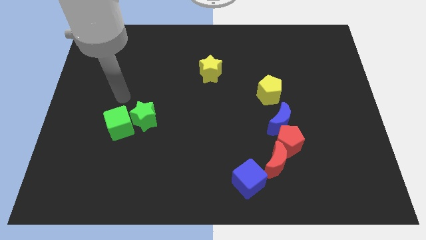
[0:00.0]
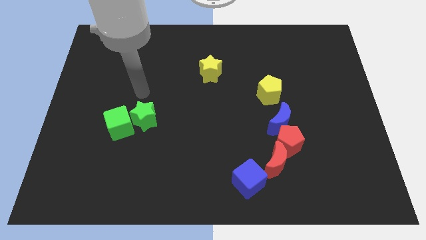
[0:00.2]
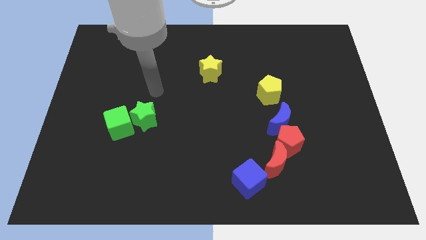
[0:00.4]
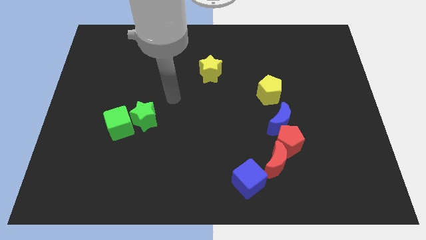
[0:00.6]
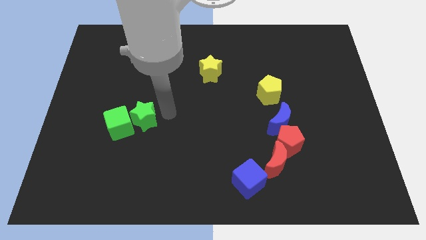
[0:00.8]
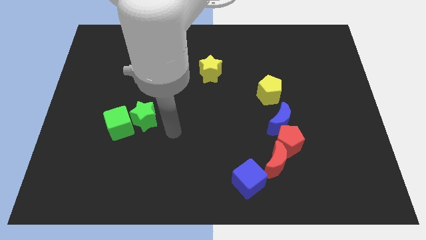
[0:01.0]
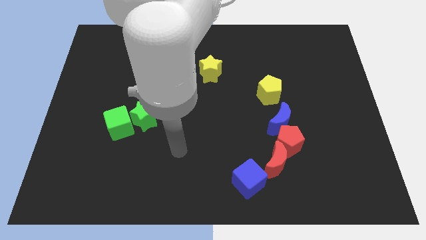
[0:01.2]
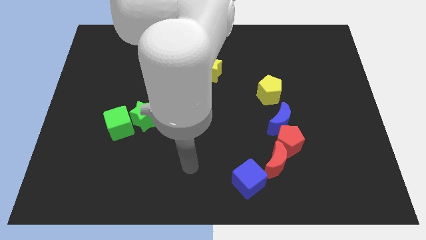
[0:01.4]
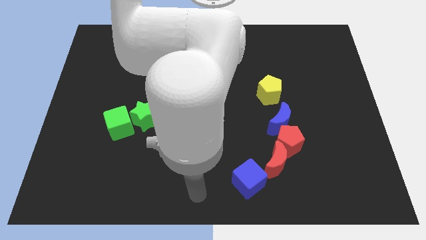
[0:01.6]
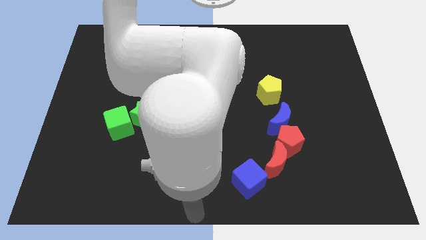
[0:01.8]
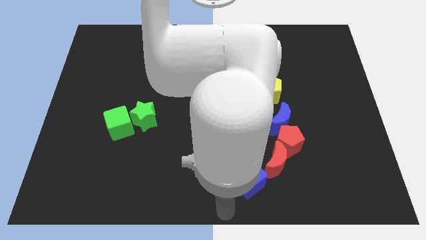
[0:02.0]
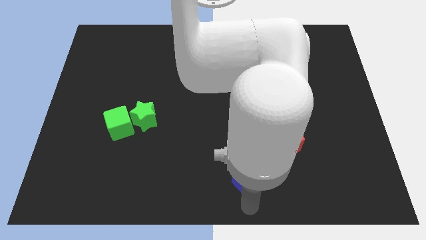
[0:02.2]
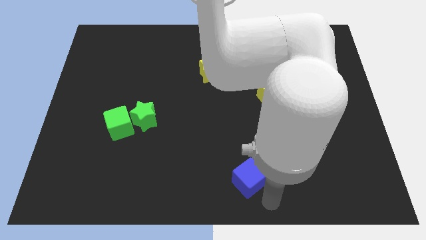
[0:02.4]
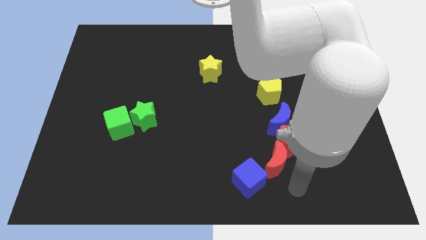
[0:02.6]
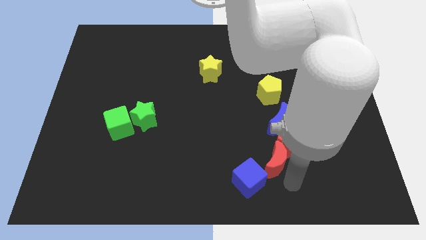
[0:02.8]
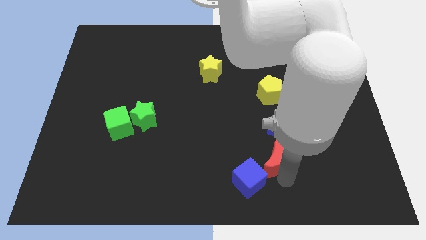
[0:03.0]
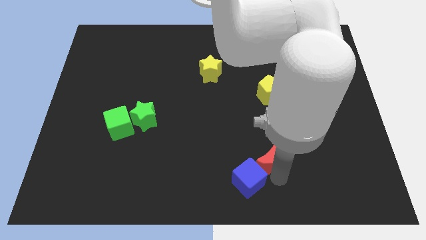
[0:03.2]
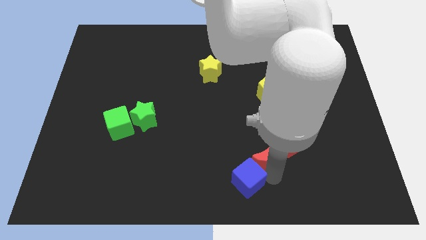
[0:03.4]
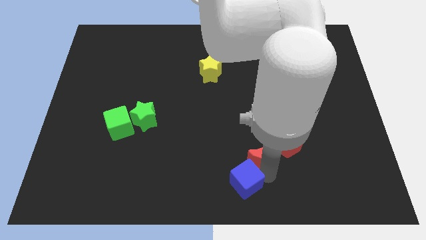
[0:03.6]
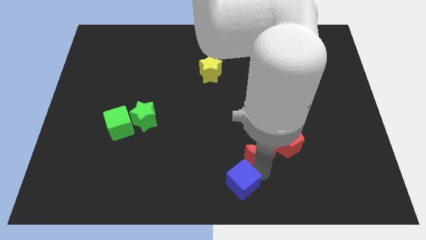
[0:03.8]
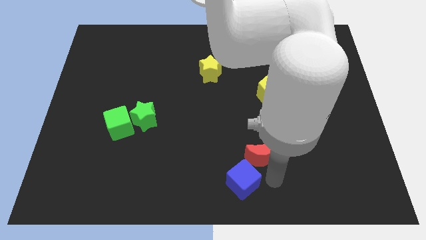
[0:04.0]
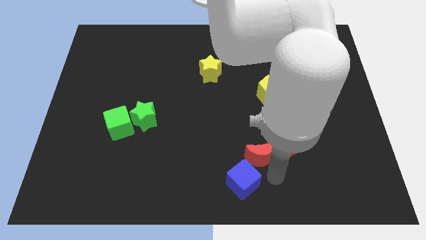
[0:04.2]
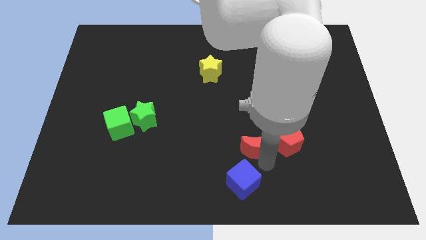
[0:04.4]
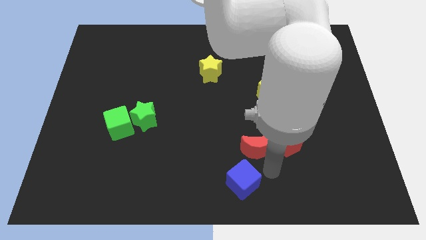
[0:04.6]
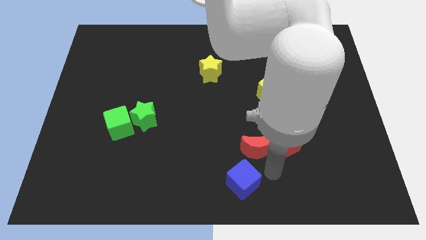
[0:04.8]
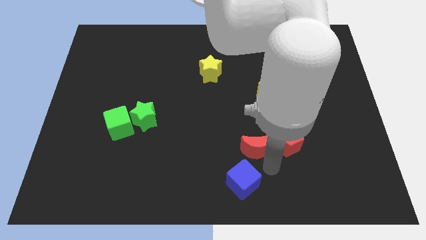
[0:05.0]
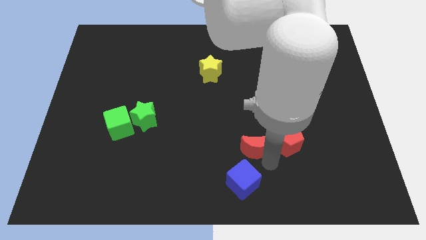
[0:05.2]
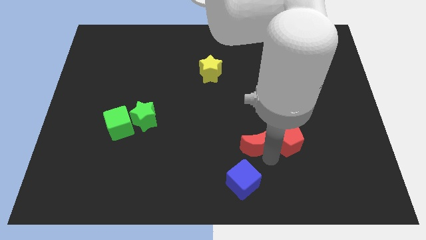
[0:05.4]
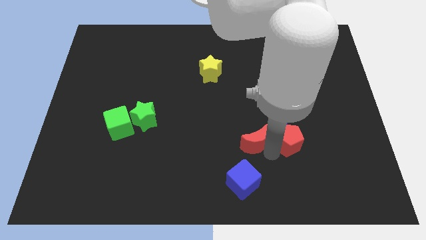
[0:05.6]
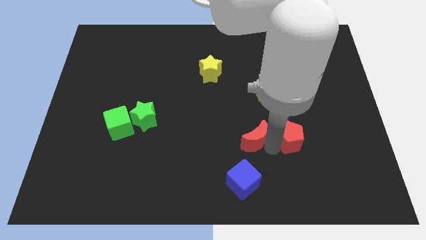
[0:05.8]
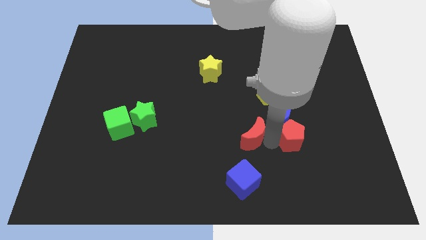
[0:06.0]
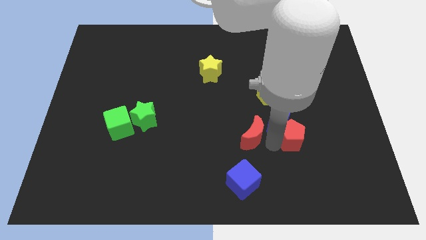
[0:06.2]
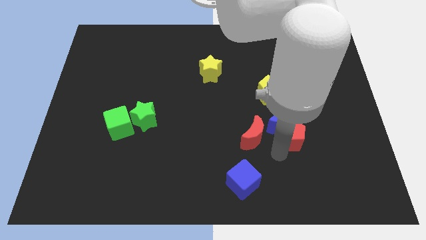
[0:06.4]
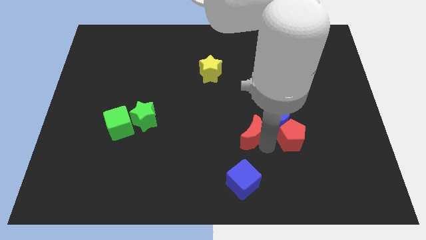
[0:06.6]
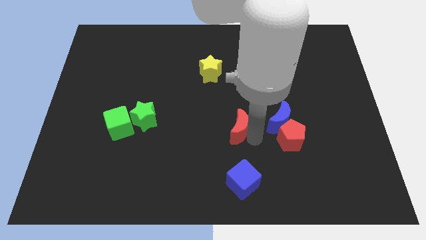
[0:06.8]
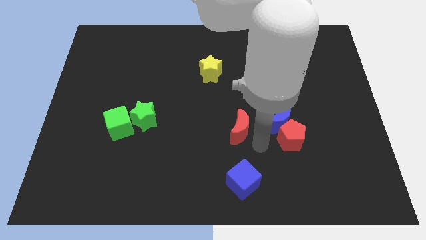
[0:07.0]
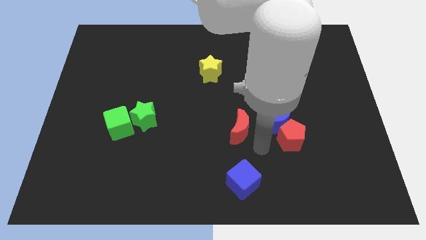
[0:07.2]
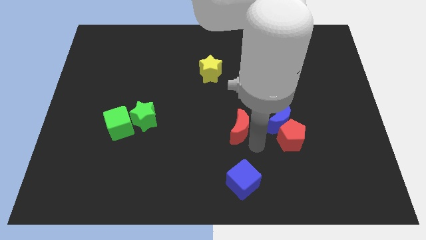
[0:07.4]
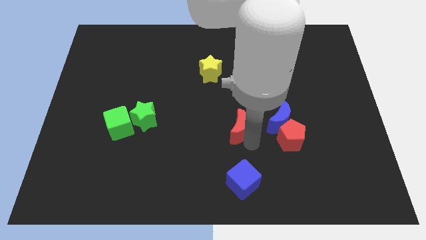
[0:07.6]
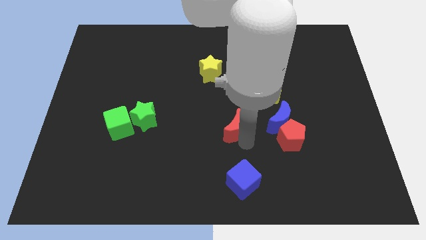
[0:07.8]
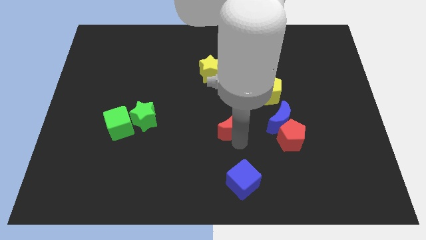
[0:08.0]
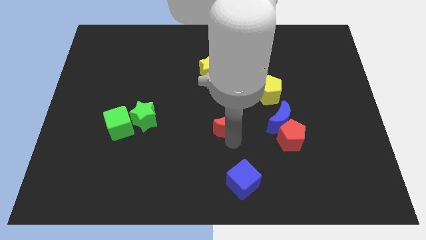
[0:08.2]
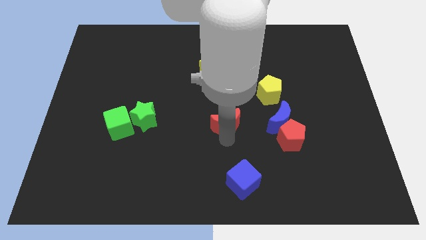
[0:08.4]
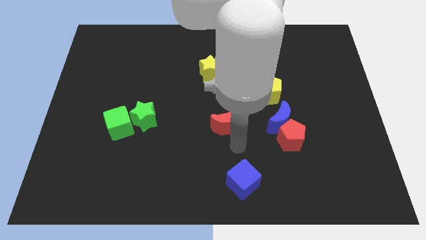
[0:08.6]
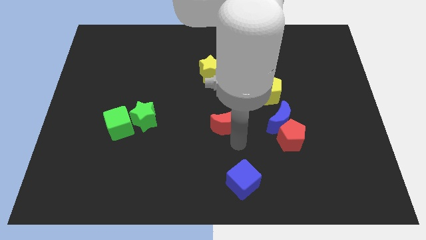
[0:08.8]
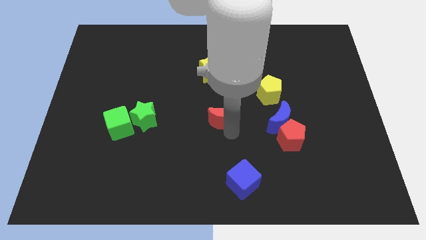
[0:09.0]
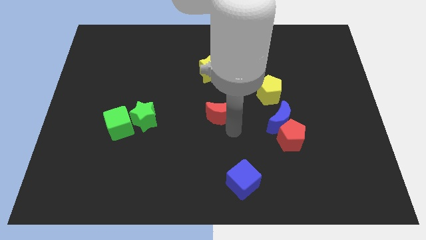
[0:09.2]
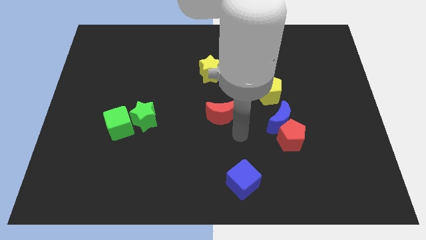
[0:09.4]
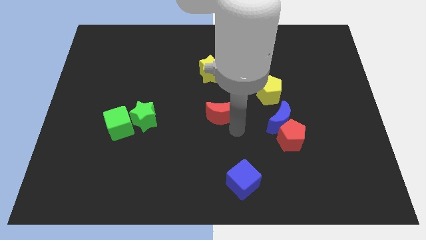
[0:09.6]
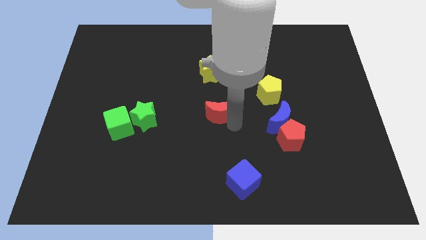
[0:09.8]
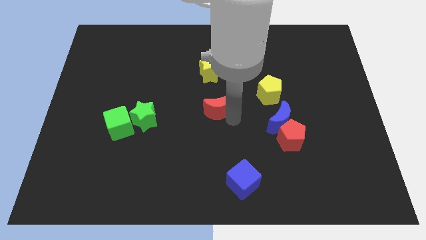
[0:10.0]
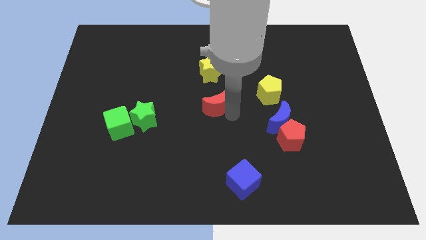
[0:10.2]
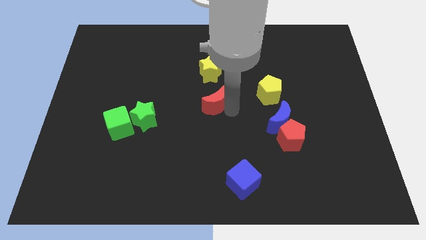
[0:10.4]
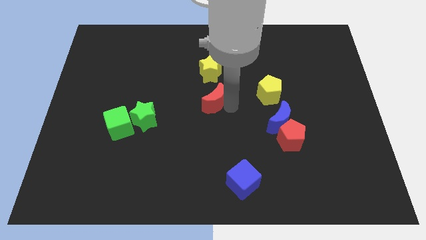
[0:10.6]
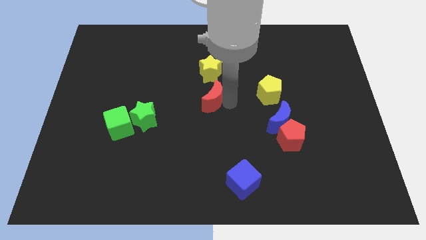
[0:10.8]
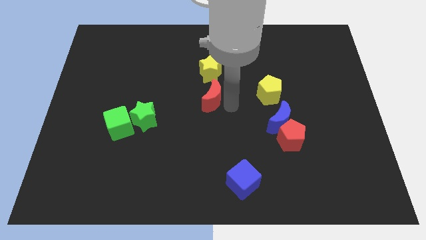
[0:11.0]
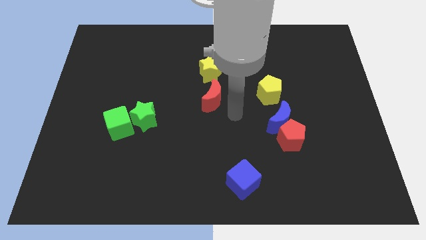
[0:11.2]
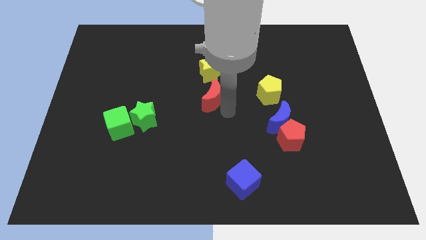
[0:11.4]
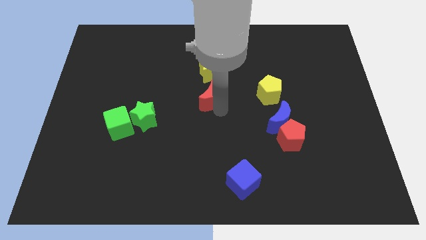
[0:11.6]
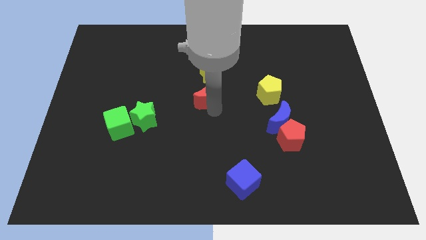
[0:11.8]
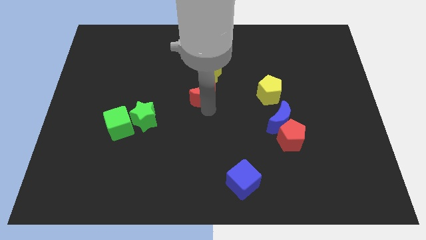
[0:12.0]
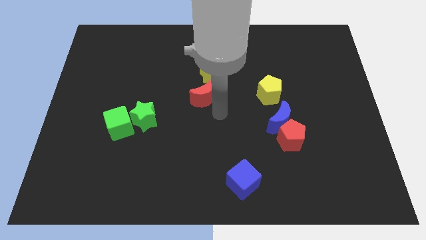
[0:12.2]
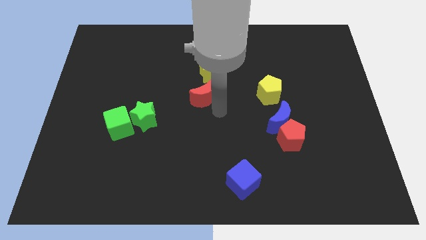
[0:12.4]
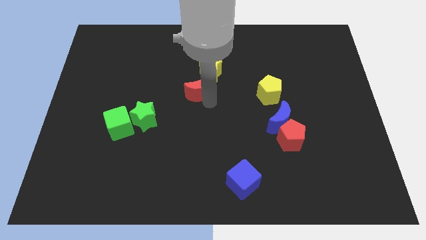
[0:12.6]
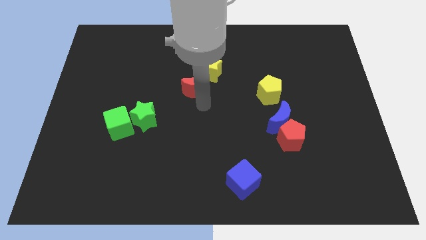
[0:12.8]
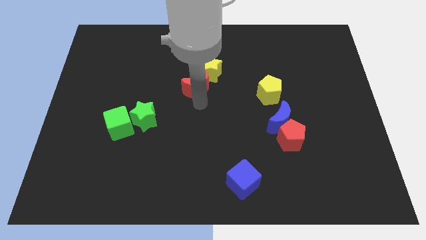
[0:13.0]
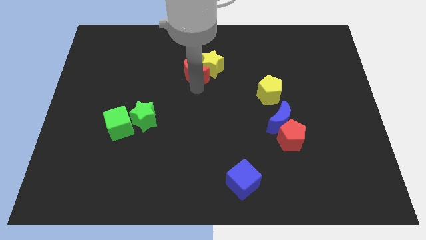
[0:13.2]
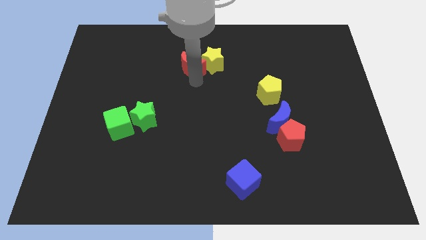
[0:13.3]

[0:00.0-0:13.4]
move the red moon to the top left side of the yellow star

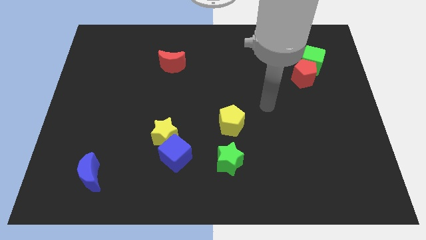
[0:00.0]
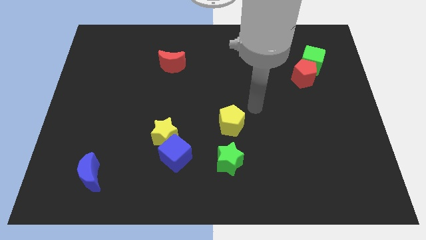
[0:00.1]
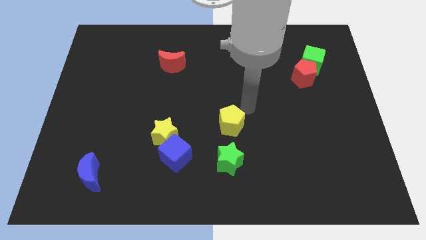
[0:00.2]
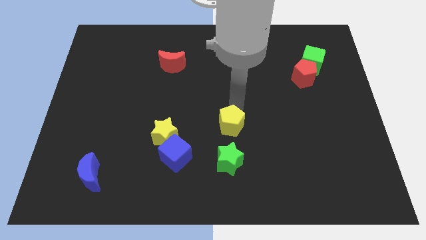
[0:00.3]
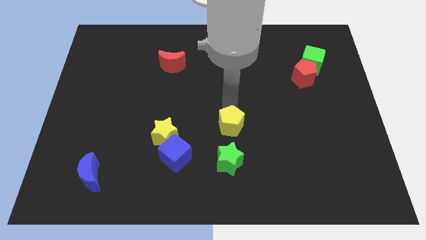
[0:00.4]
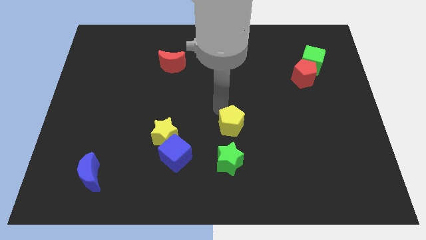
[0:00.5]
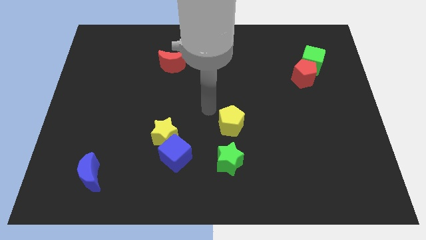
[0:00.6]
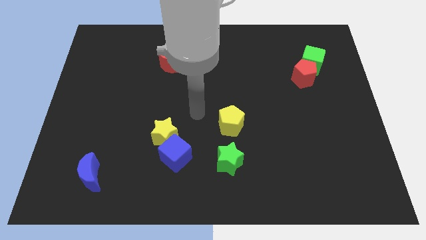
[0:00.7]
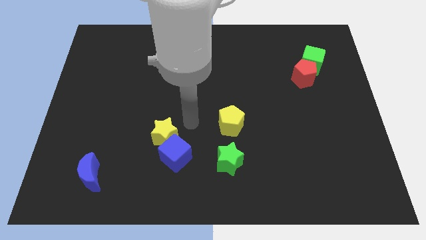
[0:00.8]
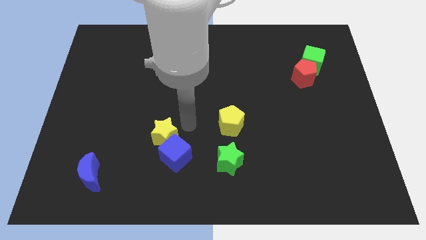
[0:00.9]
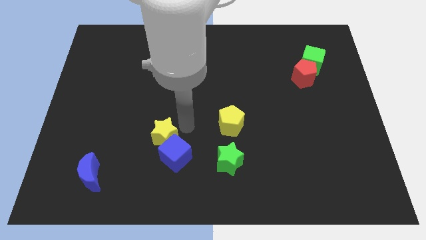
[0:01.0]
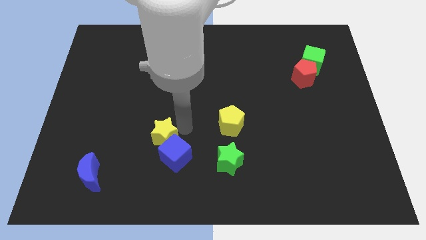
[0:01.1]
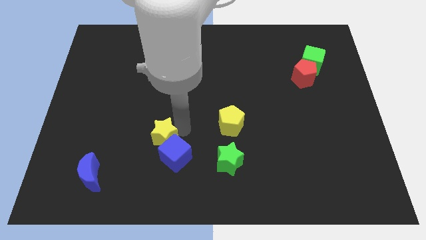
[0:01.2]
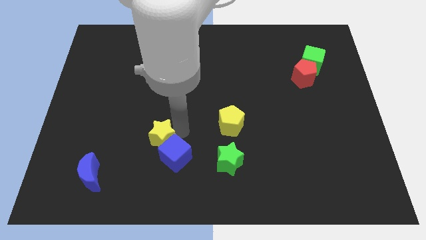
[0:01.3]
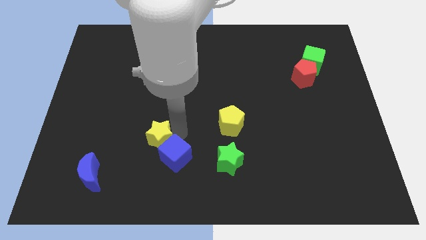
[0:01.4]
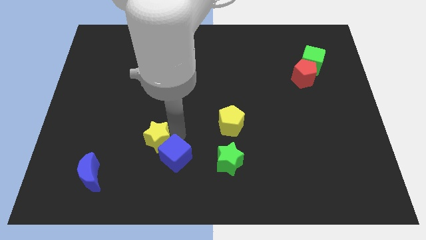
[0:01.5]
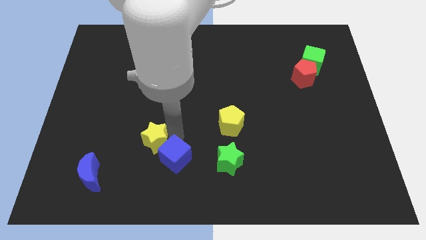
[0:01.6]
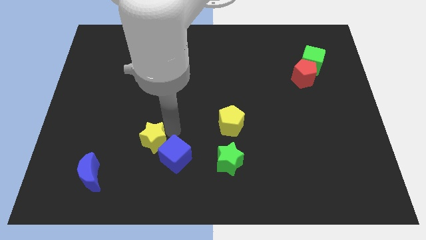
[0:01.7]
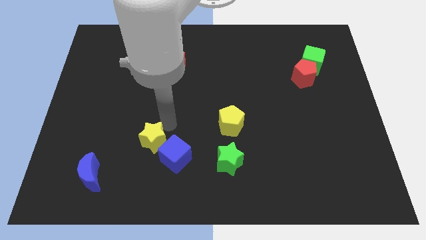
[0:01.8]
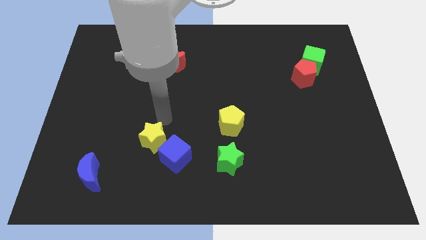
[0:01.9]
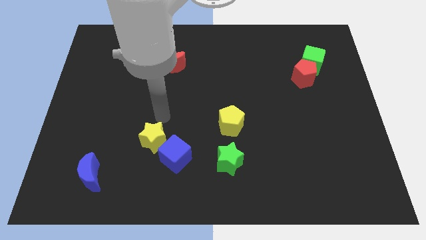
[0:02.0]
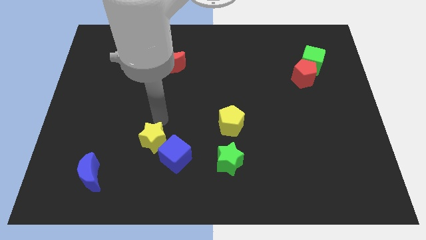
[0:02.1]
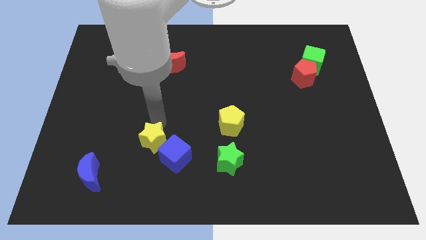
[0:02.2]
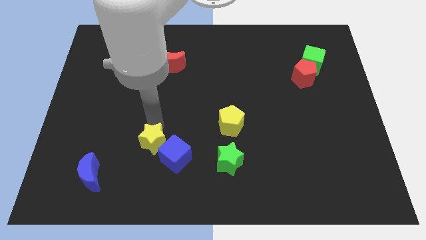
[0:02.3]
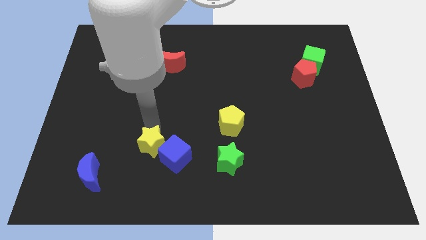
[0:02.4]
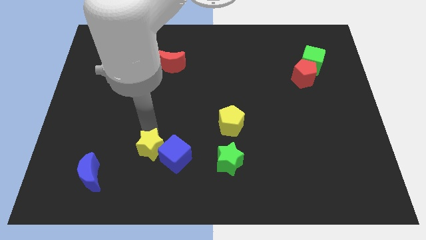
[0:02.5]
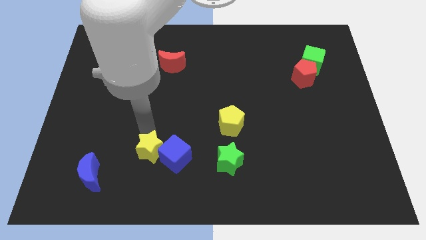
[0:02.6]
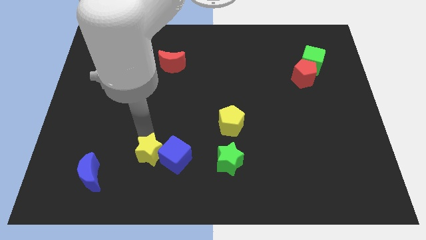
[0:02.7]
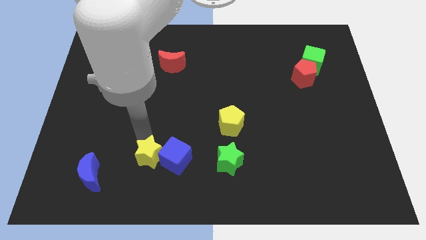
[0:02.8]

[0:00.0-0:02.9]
put the yellow star to the right of the blue moon
